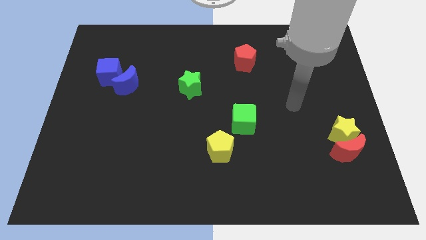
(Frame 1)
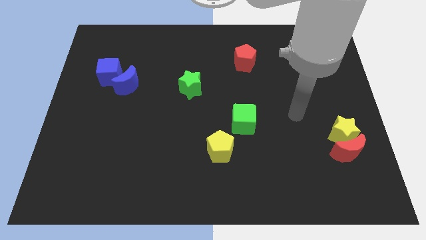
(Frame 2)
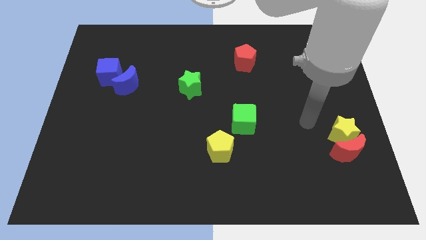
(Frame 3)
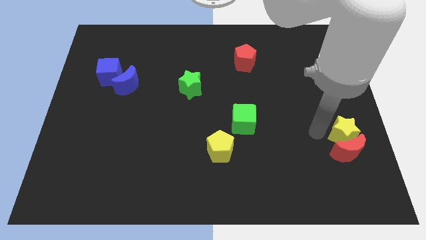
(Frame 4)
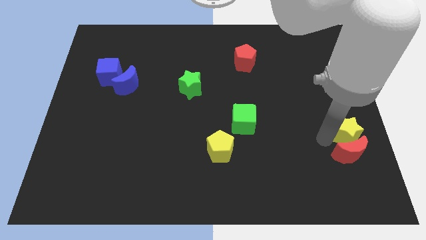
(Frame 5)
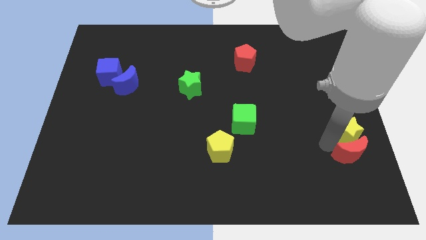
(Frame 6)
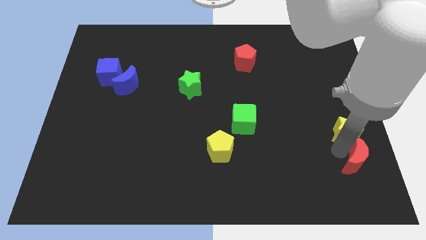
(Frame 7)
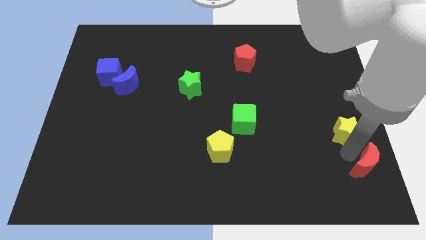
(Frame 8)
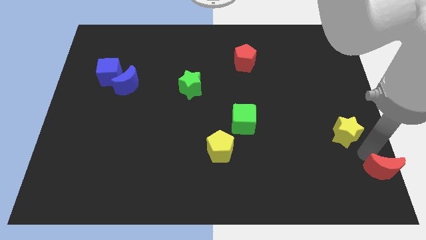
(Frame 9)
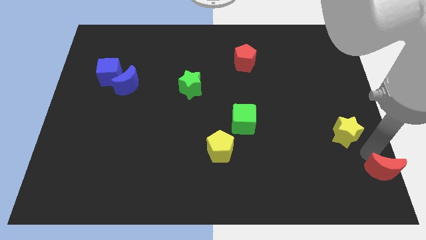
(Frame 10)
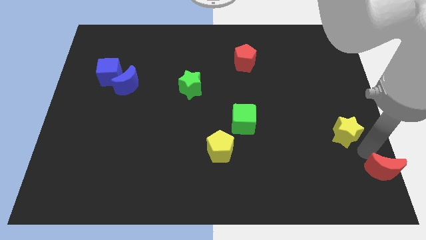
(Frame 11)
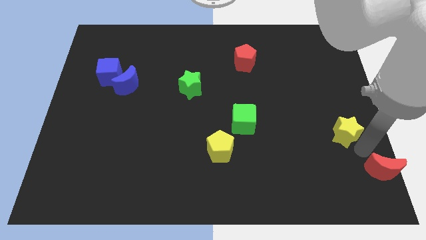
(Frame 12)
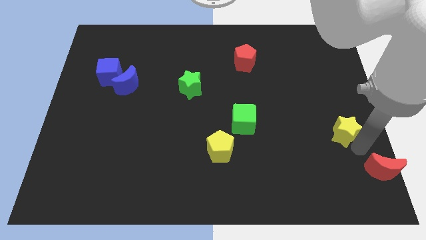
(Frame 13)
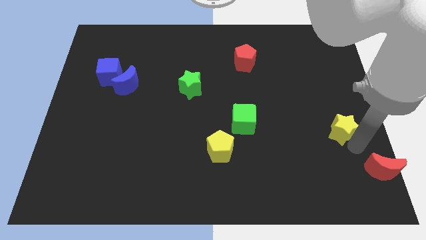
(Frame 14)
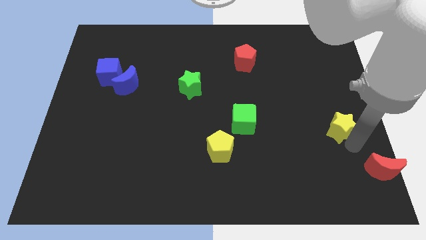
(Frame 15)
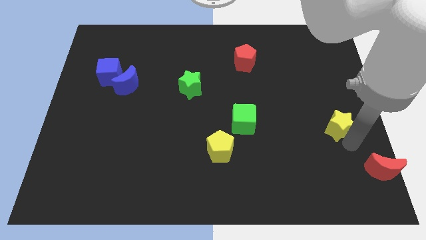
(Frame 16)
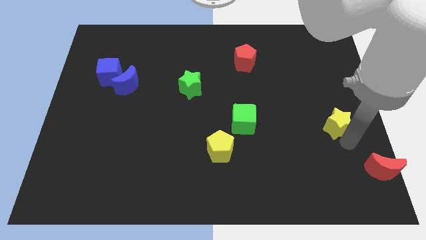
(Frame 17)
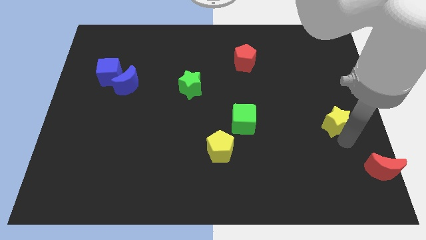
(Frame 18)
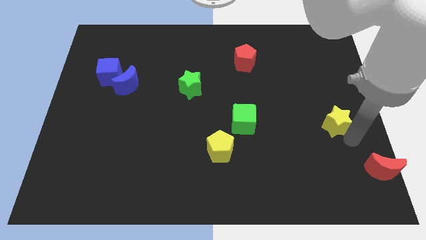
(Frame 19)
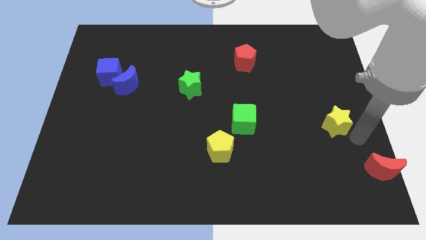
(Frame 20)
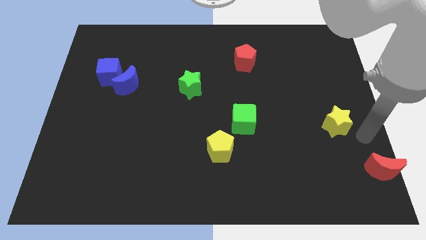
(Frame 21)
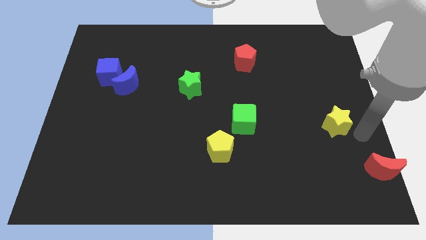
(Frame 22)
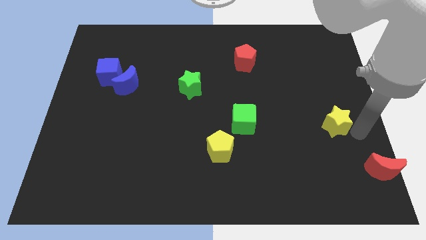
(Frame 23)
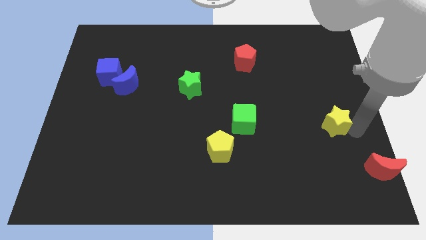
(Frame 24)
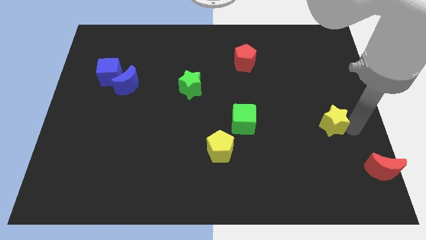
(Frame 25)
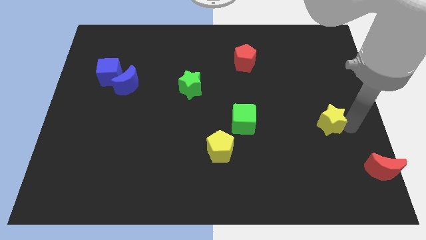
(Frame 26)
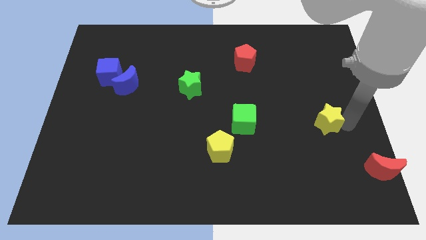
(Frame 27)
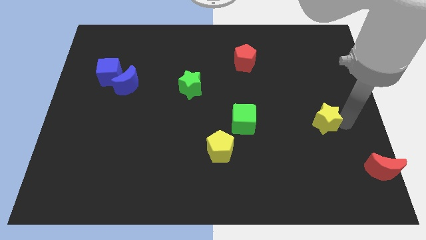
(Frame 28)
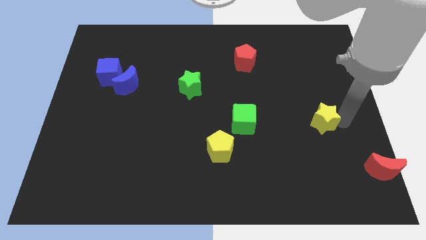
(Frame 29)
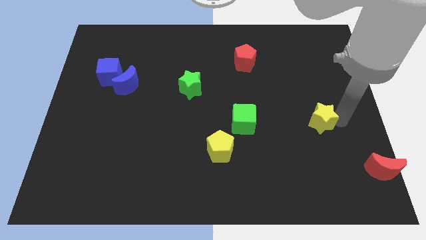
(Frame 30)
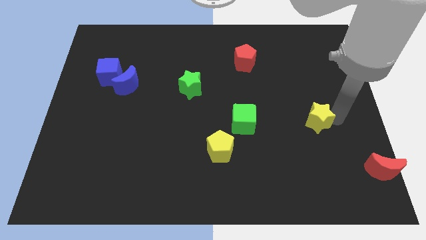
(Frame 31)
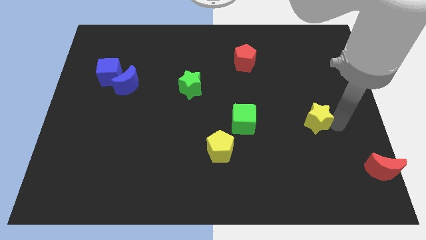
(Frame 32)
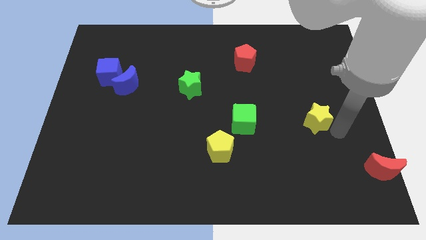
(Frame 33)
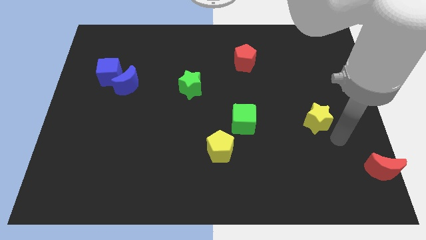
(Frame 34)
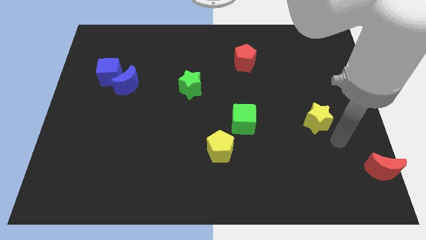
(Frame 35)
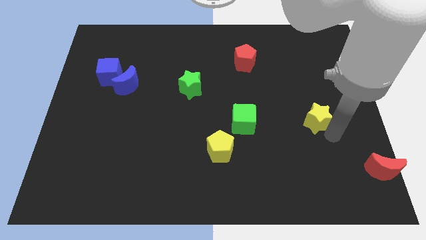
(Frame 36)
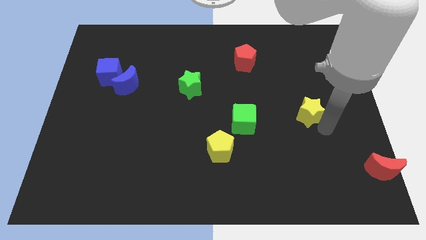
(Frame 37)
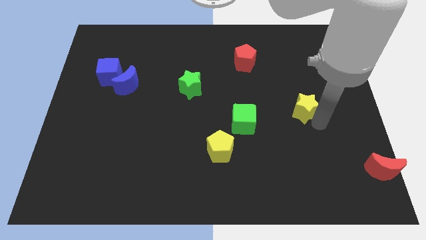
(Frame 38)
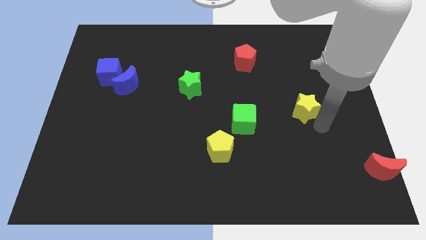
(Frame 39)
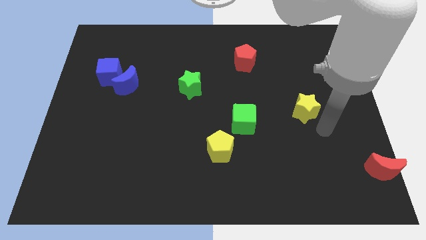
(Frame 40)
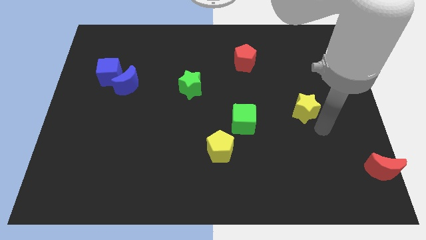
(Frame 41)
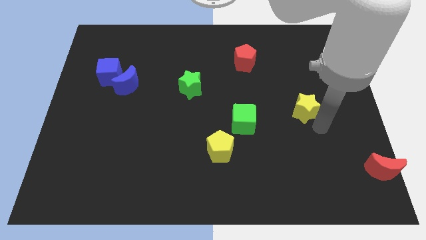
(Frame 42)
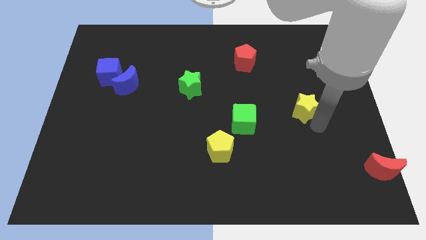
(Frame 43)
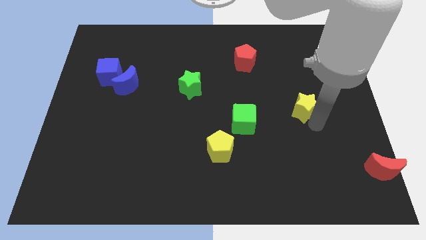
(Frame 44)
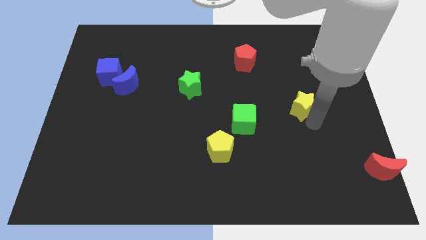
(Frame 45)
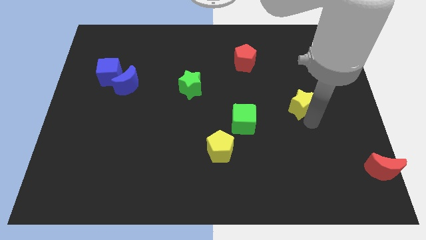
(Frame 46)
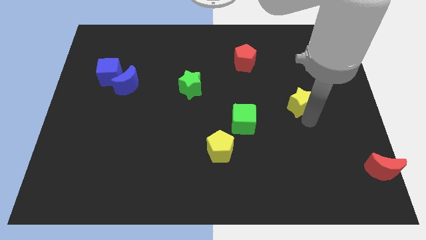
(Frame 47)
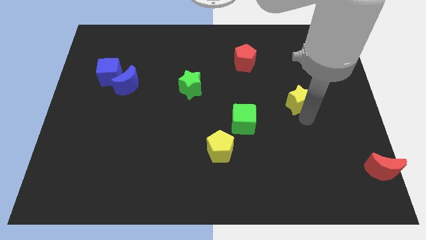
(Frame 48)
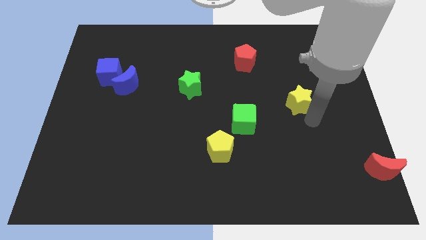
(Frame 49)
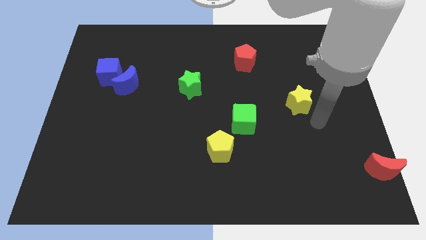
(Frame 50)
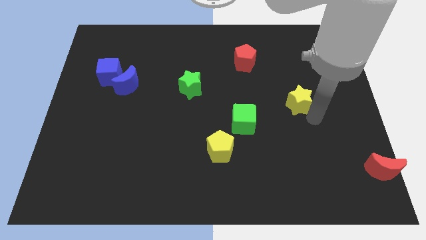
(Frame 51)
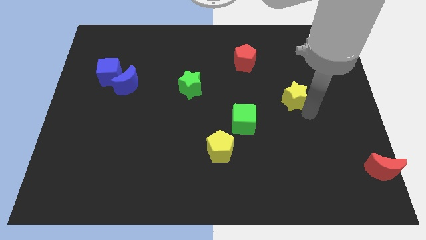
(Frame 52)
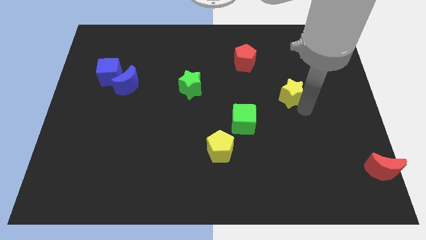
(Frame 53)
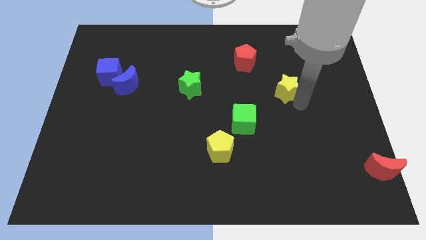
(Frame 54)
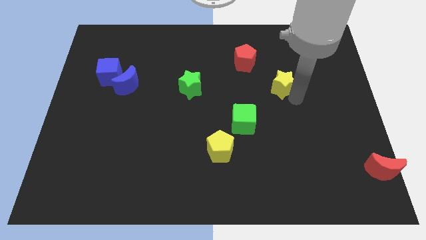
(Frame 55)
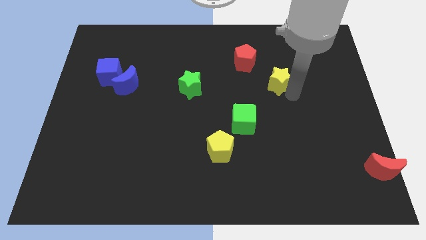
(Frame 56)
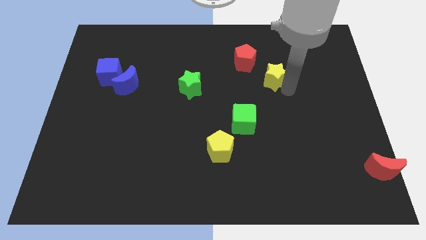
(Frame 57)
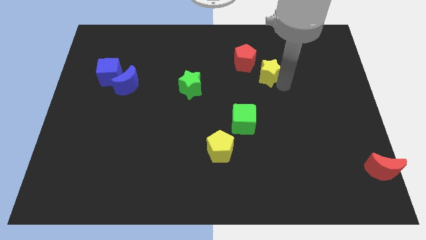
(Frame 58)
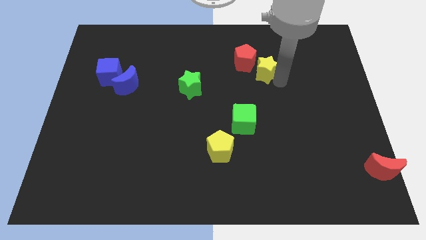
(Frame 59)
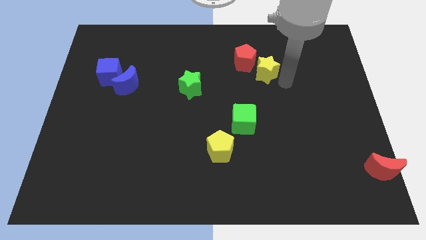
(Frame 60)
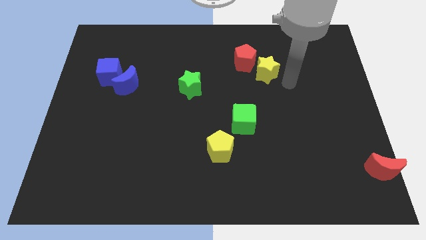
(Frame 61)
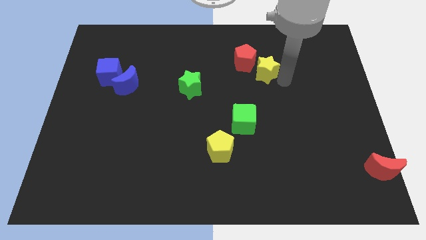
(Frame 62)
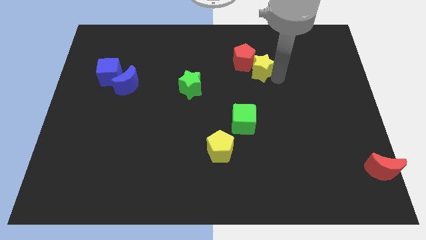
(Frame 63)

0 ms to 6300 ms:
slide the yellow star to the red pentagon

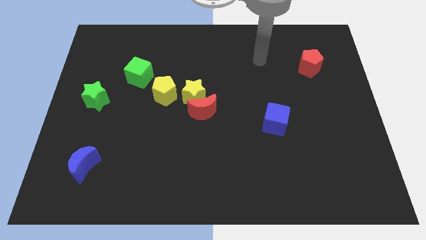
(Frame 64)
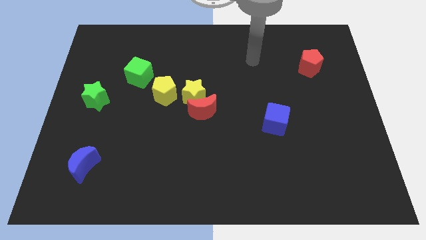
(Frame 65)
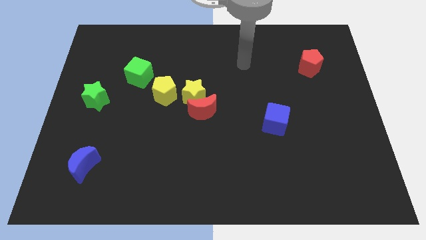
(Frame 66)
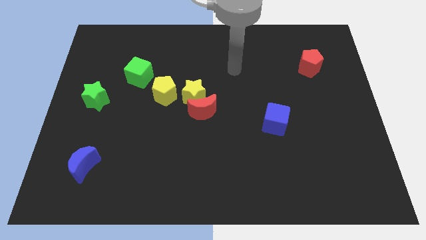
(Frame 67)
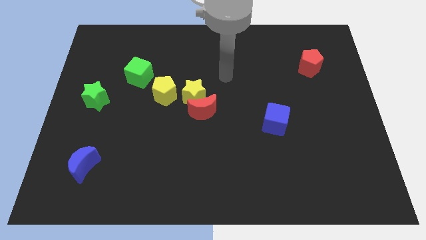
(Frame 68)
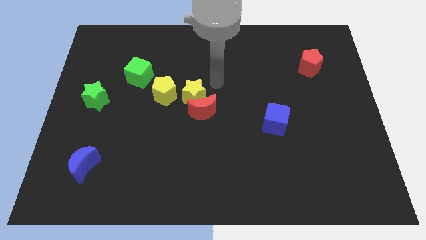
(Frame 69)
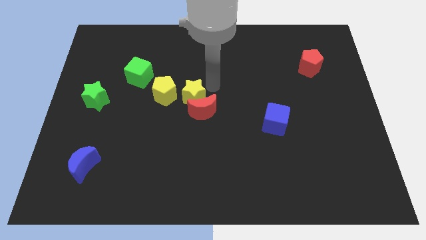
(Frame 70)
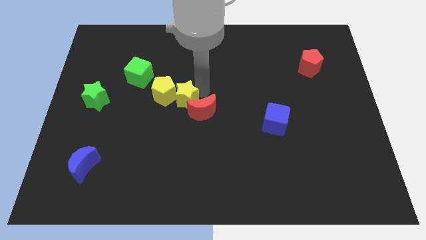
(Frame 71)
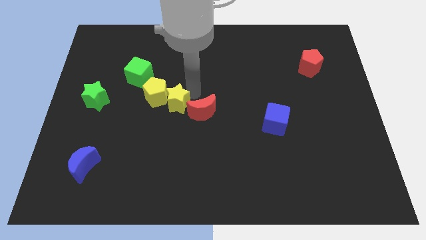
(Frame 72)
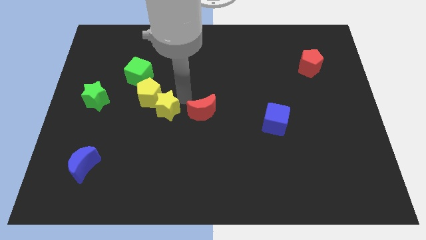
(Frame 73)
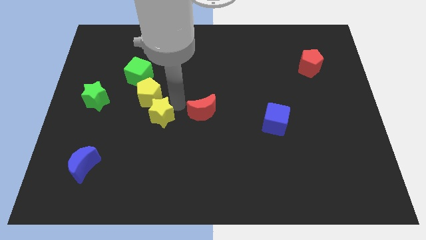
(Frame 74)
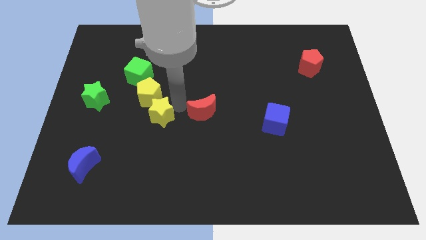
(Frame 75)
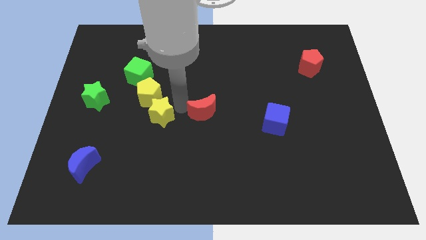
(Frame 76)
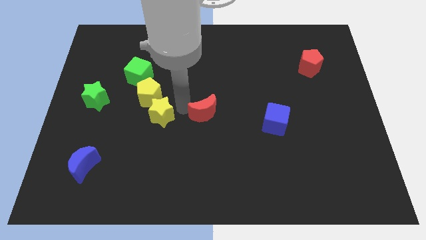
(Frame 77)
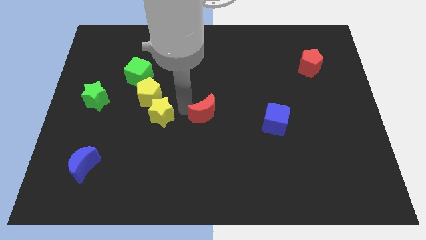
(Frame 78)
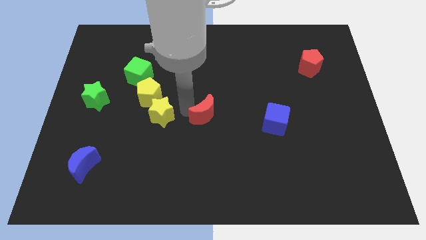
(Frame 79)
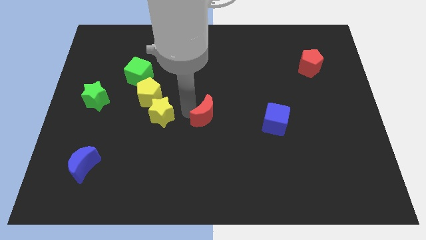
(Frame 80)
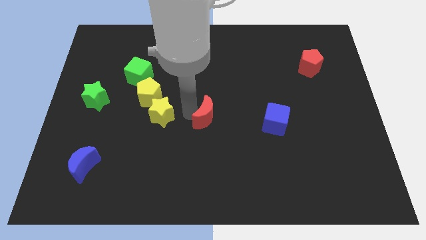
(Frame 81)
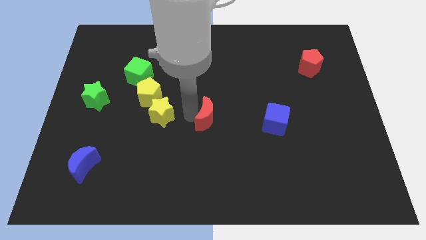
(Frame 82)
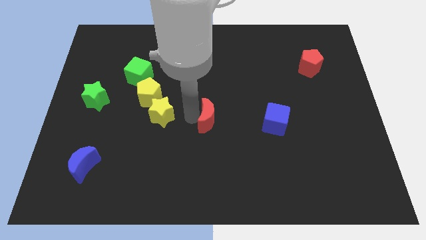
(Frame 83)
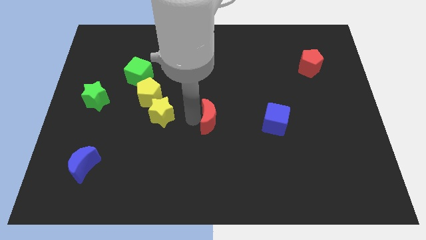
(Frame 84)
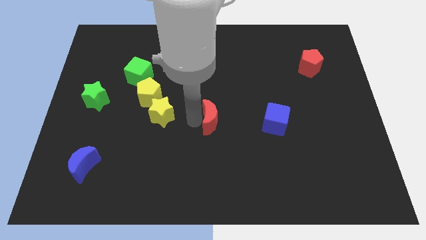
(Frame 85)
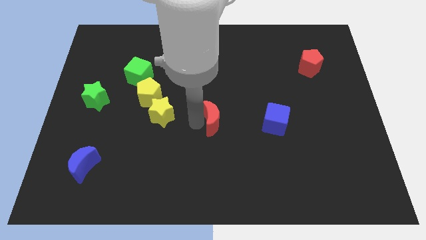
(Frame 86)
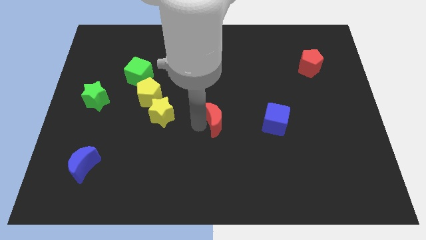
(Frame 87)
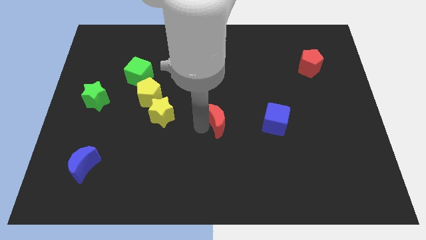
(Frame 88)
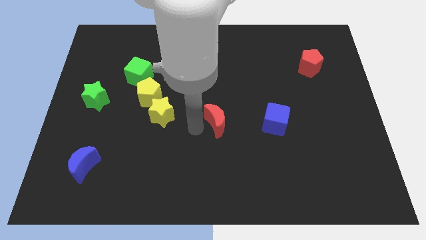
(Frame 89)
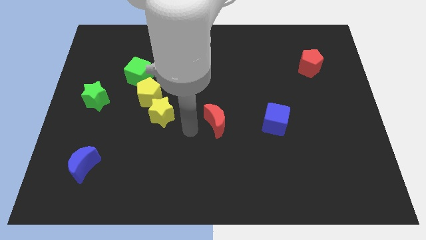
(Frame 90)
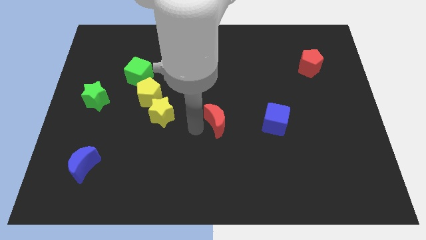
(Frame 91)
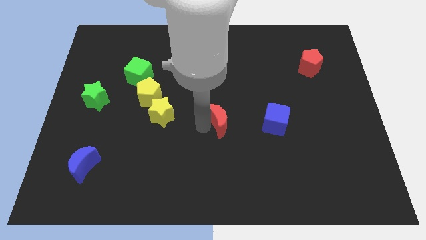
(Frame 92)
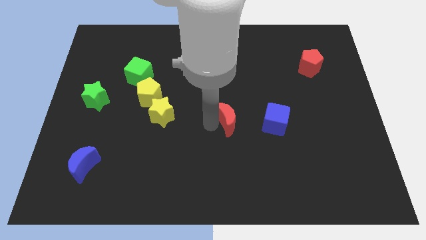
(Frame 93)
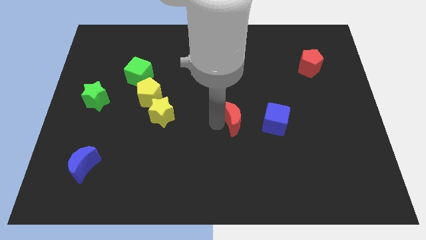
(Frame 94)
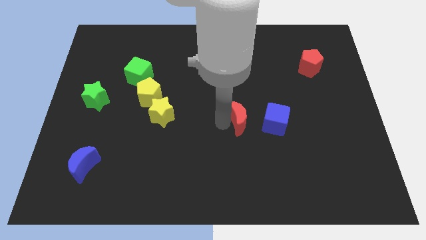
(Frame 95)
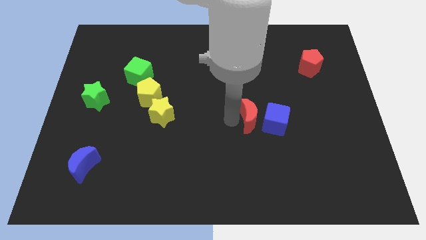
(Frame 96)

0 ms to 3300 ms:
put the red moon to the blue cube
